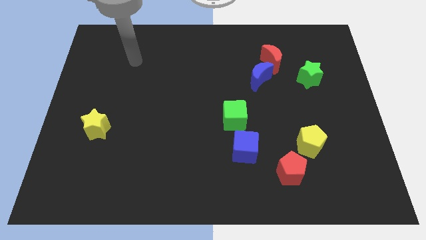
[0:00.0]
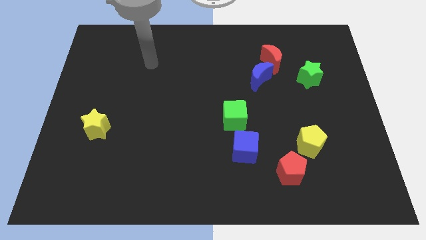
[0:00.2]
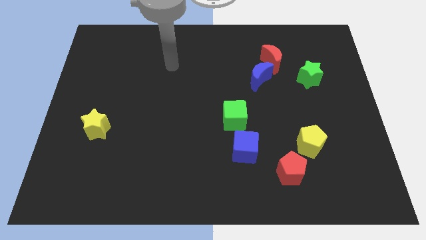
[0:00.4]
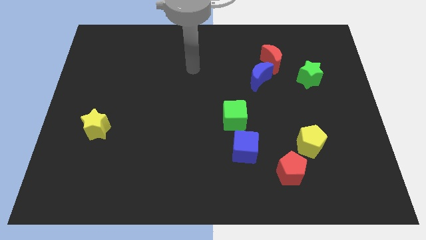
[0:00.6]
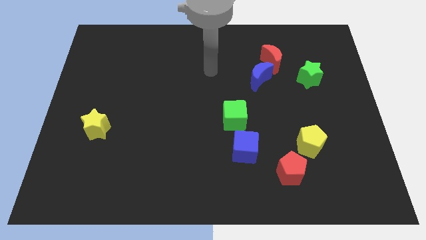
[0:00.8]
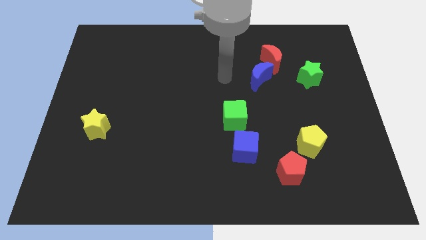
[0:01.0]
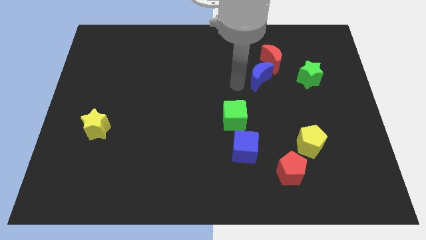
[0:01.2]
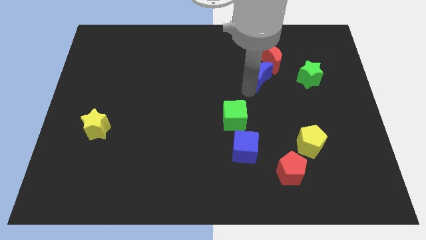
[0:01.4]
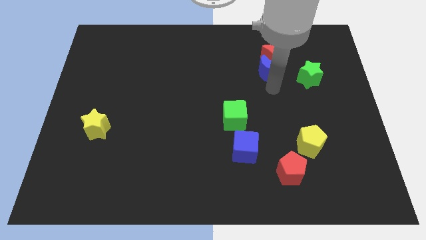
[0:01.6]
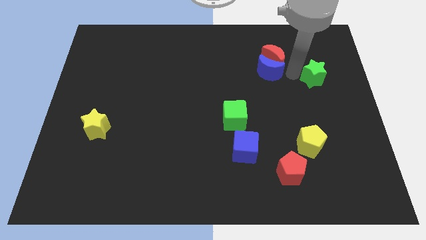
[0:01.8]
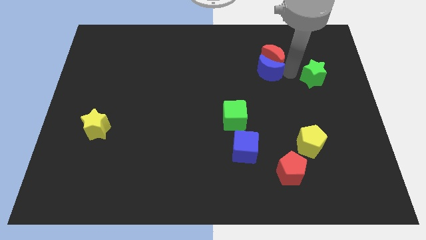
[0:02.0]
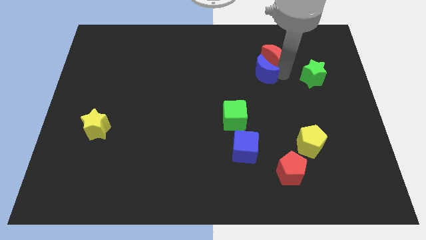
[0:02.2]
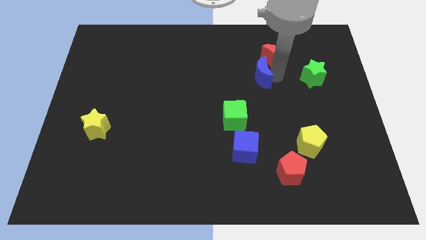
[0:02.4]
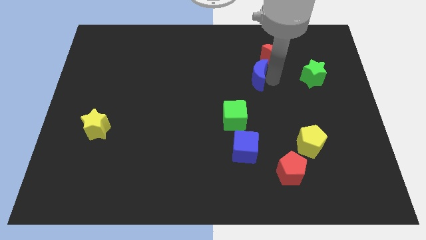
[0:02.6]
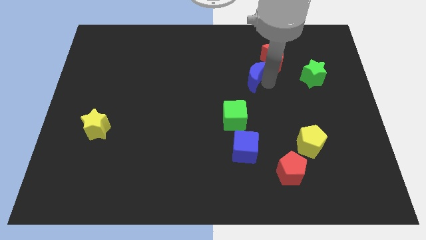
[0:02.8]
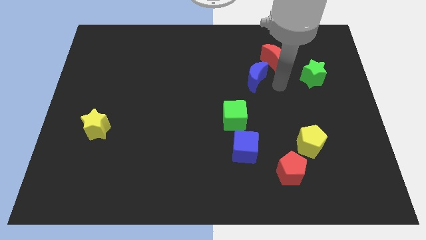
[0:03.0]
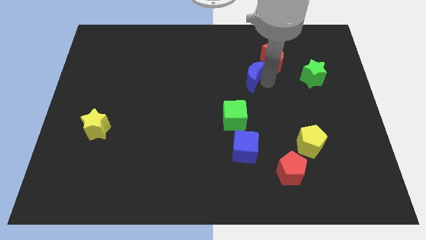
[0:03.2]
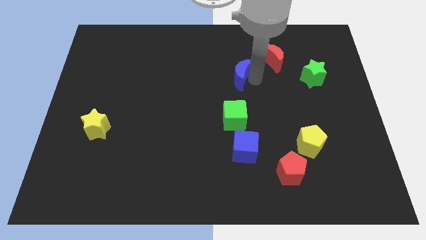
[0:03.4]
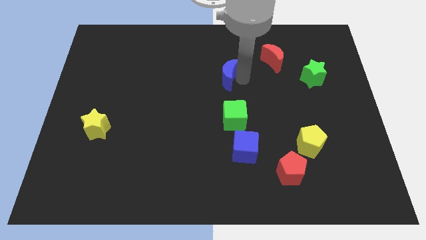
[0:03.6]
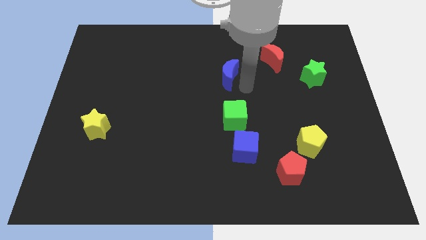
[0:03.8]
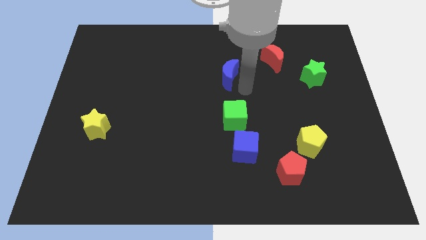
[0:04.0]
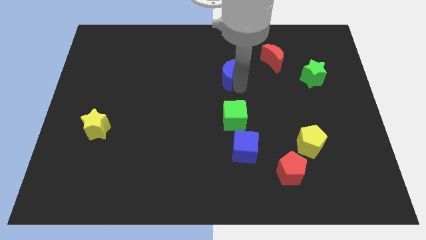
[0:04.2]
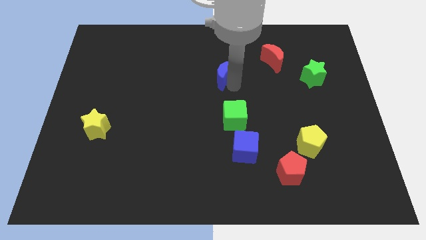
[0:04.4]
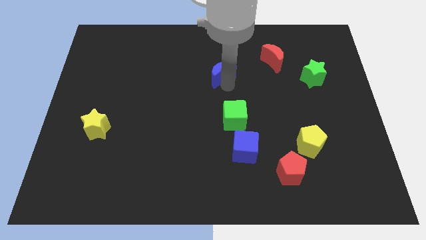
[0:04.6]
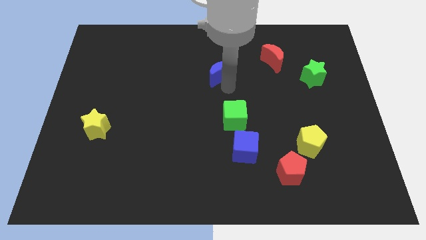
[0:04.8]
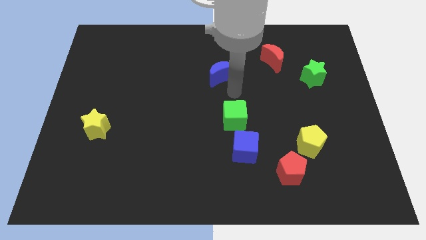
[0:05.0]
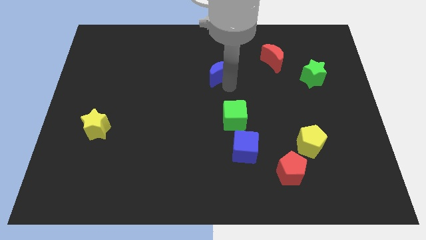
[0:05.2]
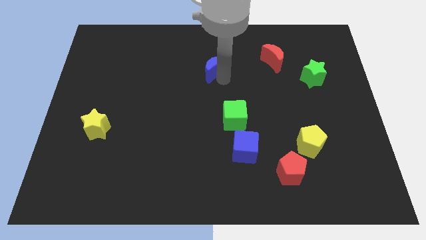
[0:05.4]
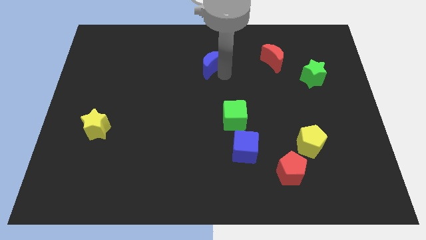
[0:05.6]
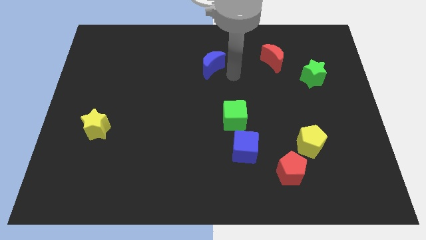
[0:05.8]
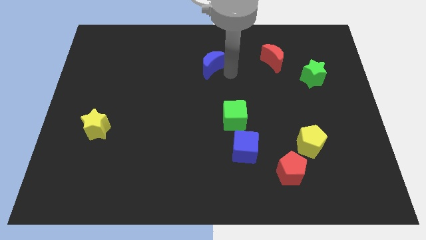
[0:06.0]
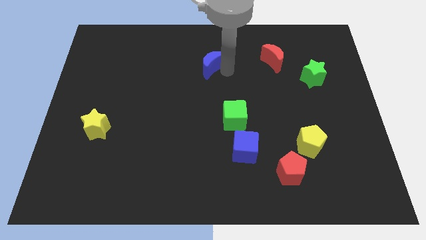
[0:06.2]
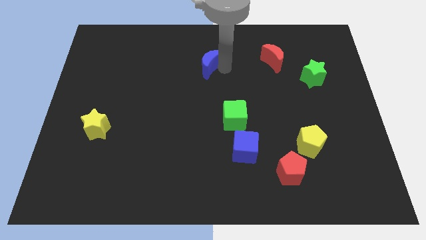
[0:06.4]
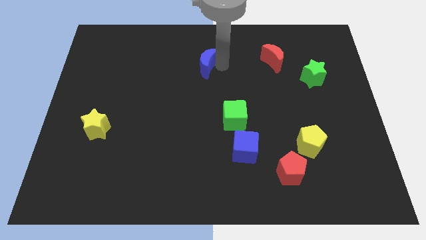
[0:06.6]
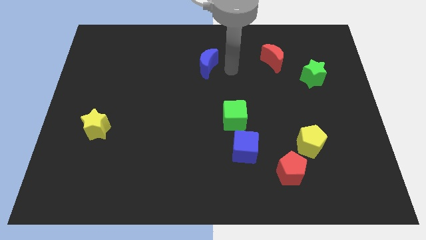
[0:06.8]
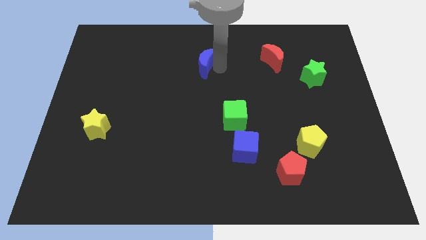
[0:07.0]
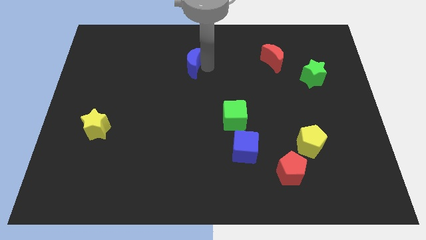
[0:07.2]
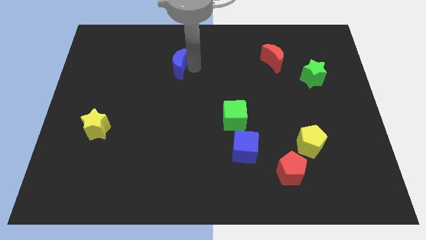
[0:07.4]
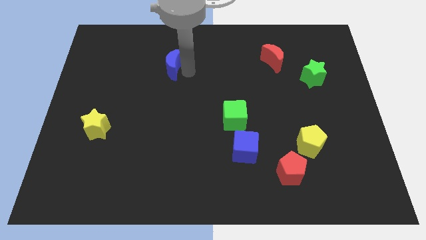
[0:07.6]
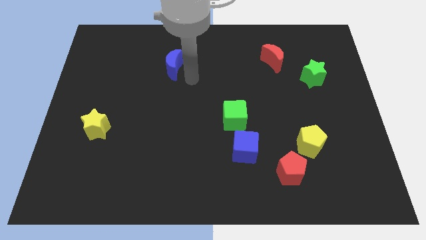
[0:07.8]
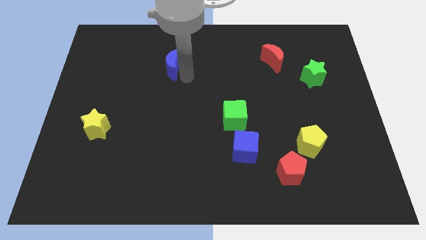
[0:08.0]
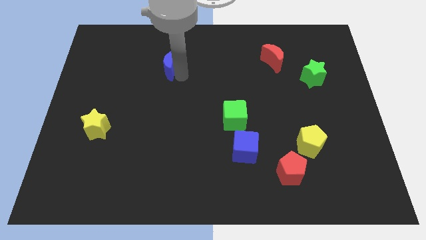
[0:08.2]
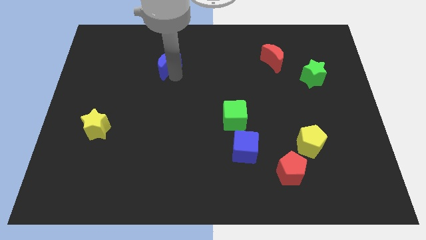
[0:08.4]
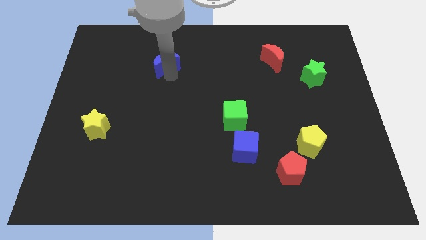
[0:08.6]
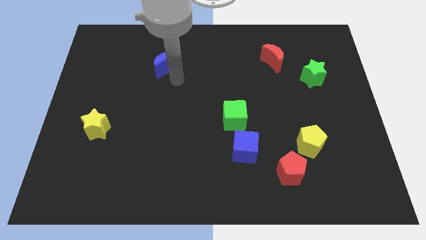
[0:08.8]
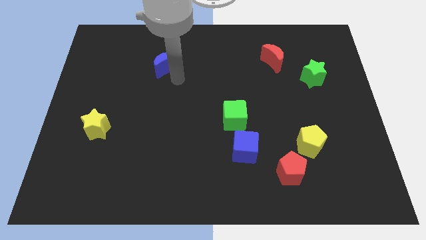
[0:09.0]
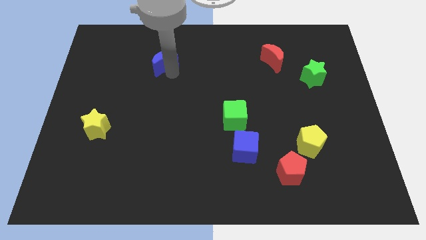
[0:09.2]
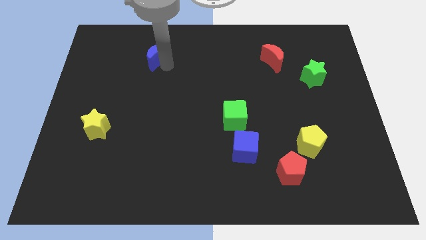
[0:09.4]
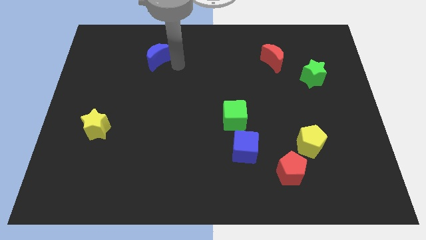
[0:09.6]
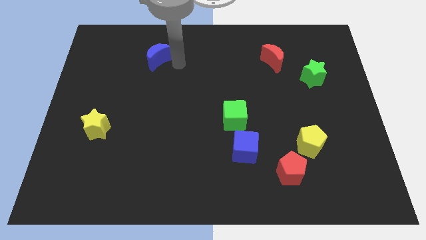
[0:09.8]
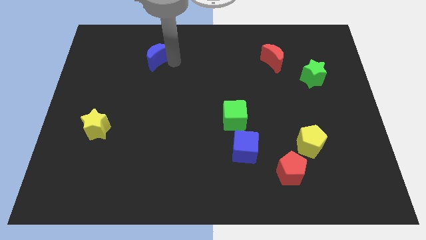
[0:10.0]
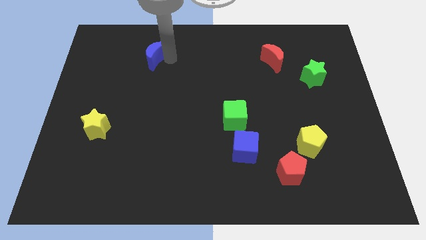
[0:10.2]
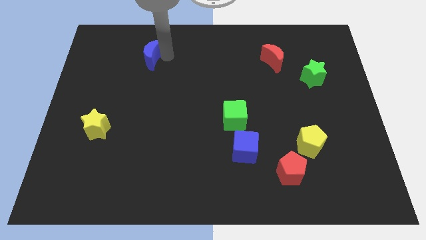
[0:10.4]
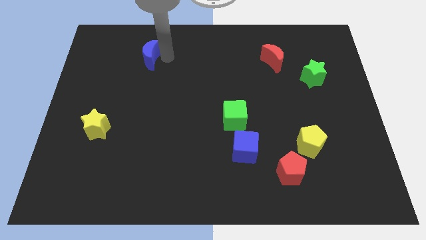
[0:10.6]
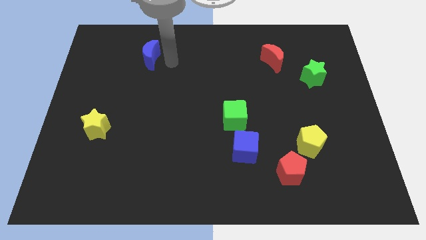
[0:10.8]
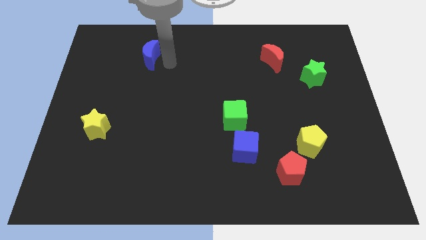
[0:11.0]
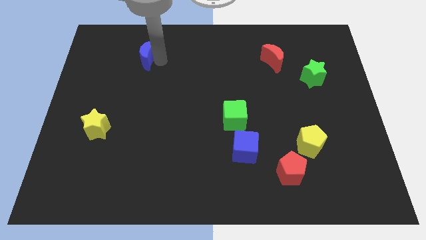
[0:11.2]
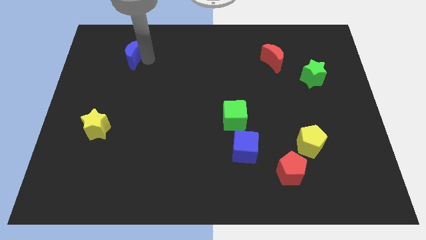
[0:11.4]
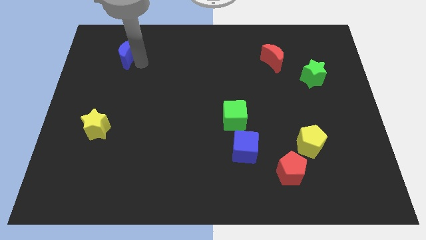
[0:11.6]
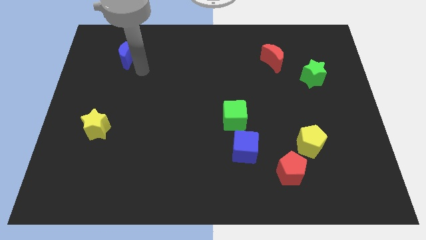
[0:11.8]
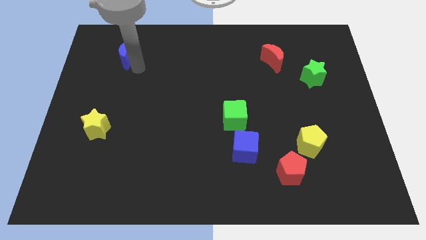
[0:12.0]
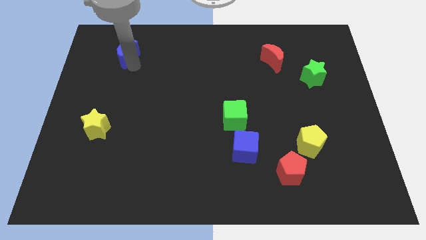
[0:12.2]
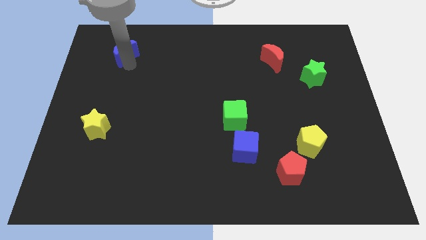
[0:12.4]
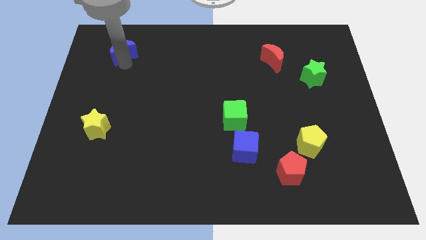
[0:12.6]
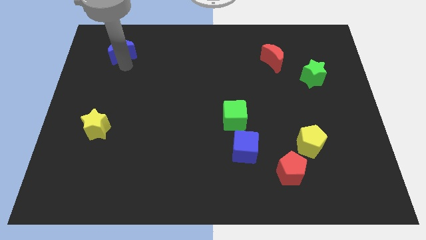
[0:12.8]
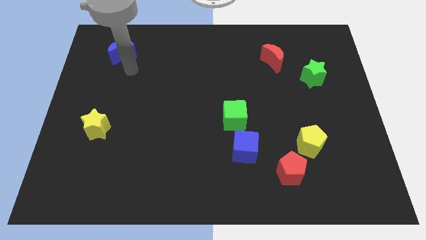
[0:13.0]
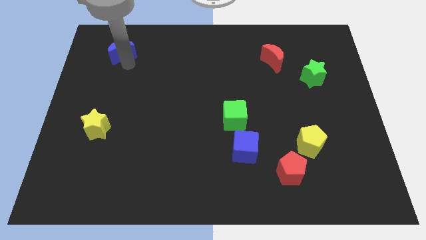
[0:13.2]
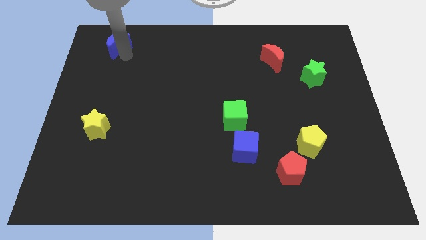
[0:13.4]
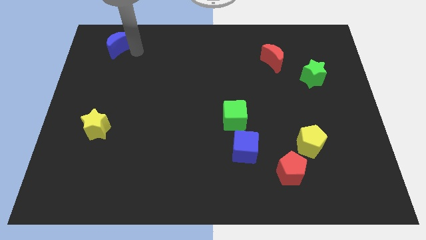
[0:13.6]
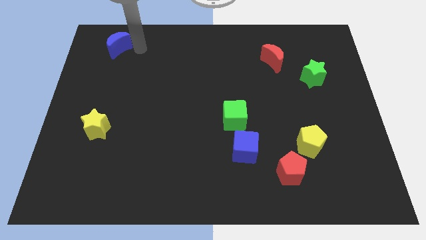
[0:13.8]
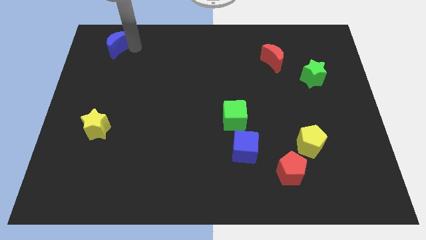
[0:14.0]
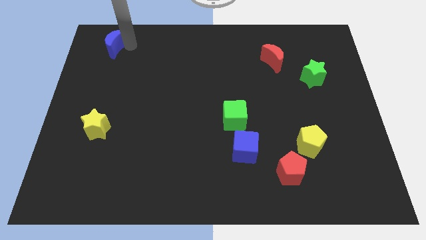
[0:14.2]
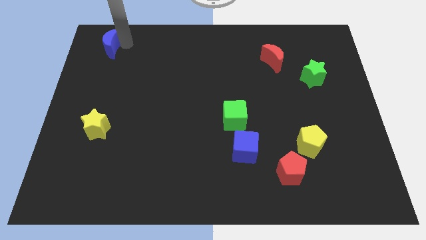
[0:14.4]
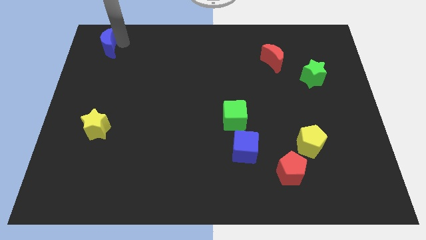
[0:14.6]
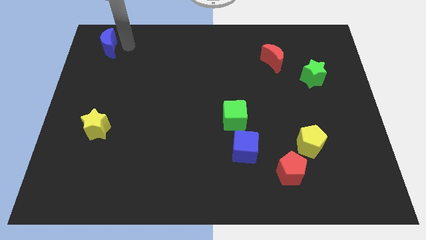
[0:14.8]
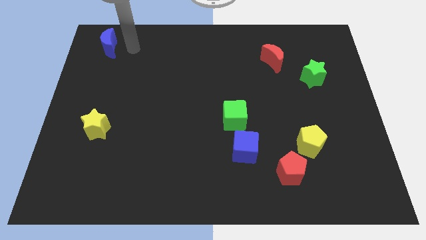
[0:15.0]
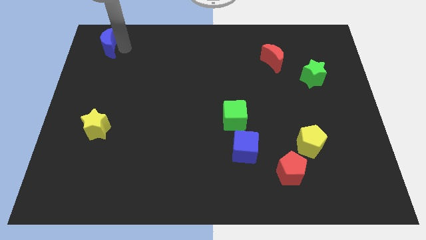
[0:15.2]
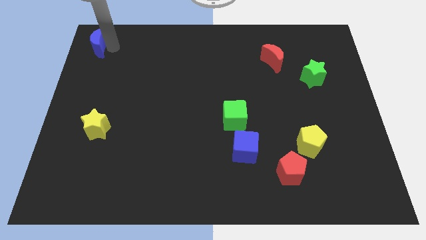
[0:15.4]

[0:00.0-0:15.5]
move the blue moon to the upper left corner
